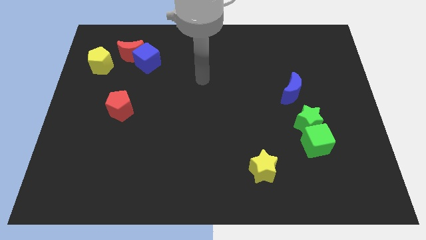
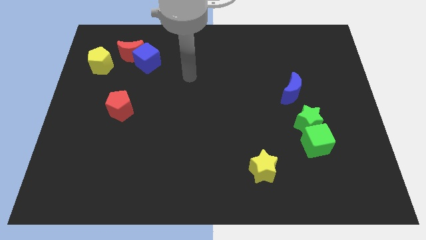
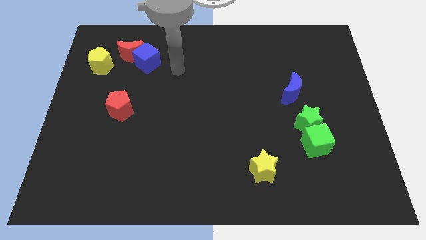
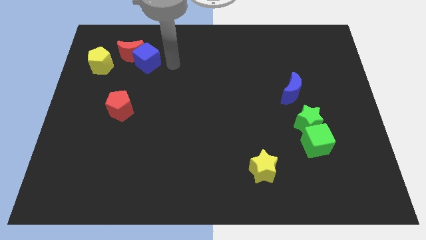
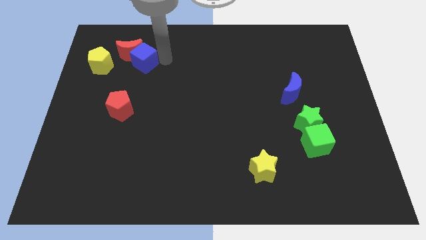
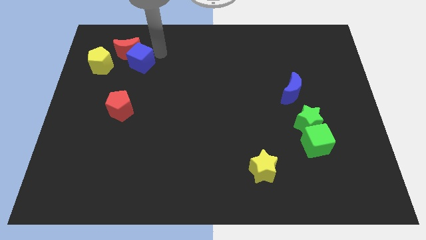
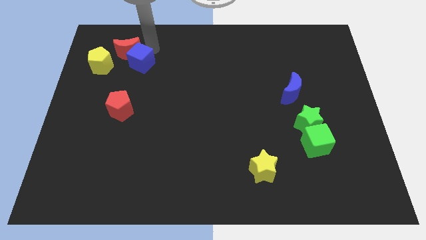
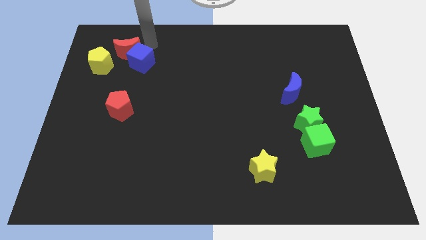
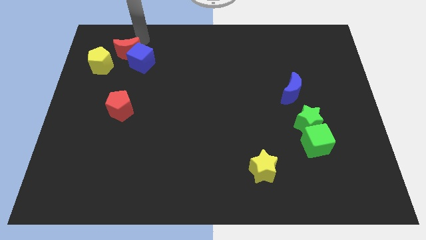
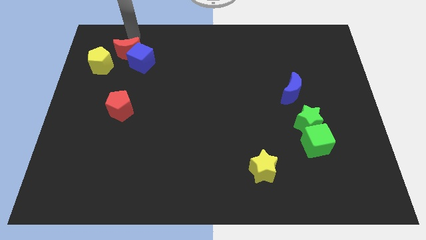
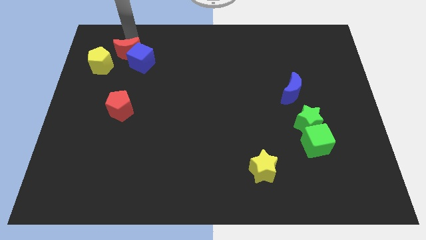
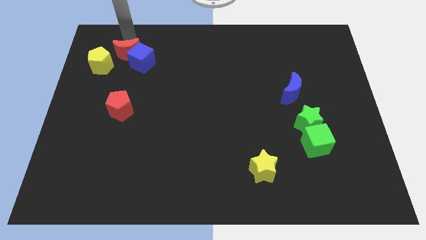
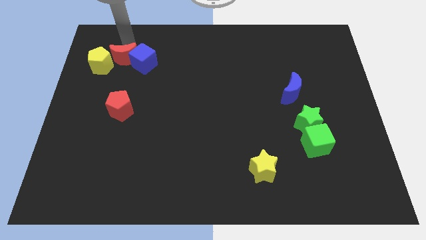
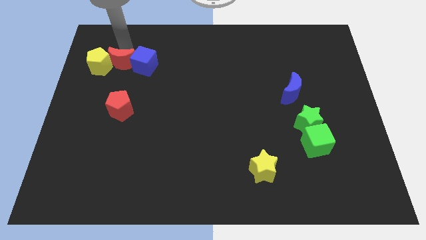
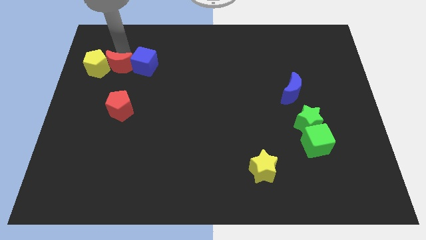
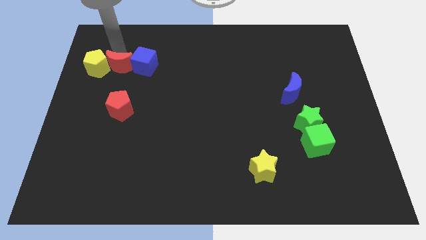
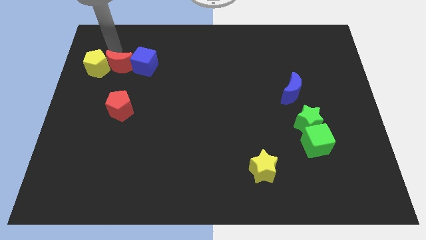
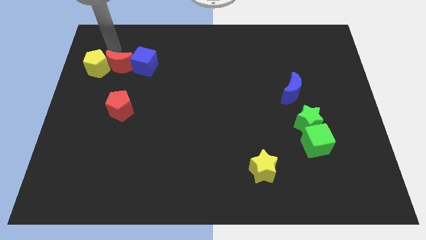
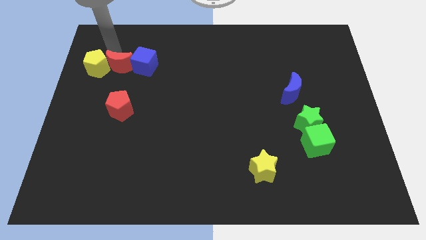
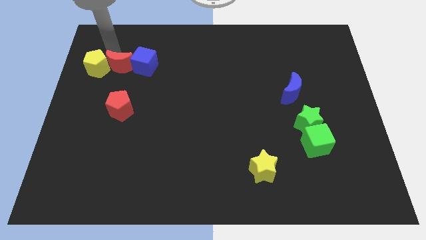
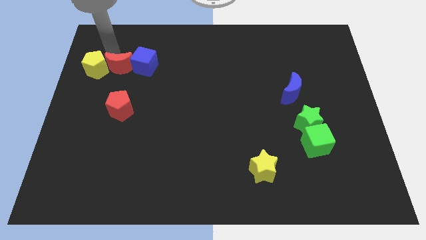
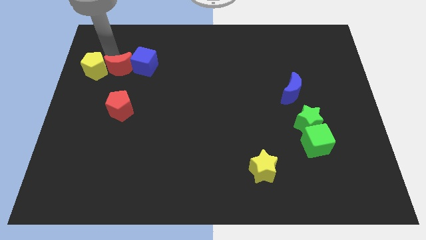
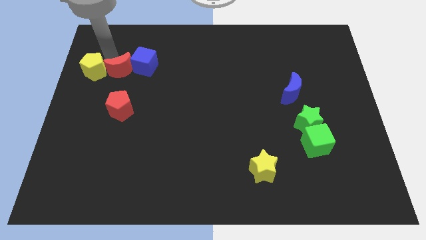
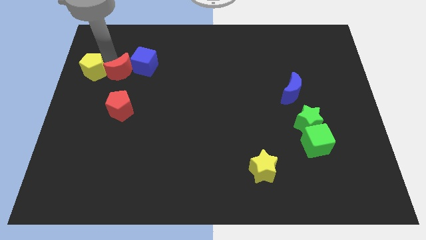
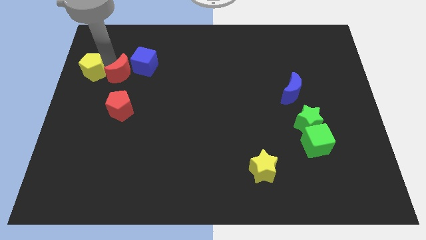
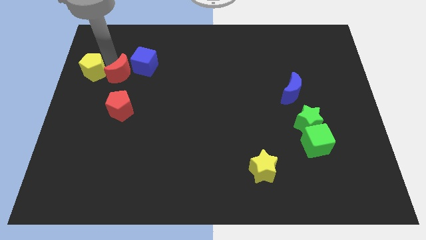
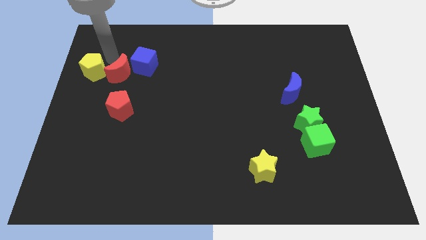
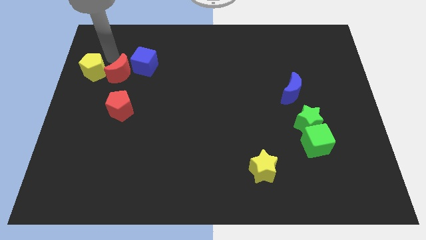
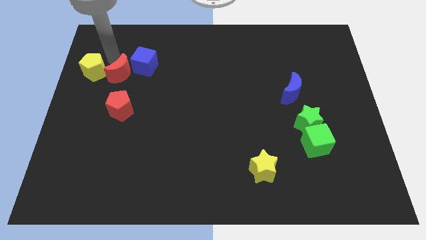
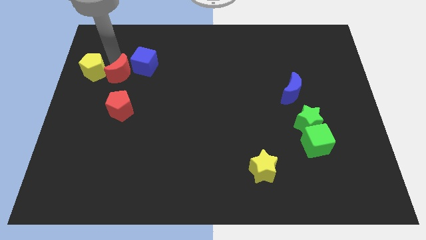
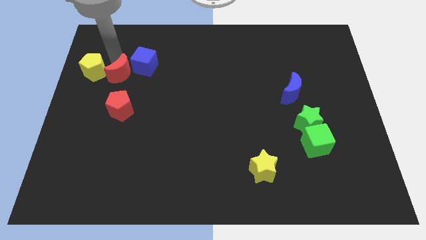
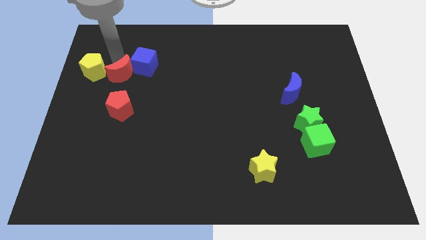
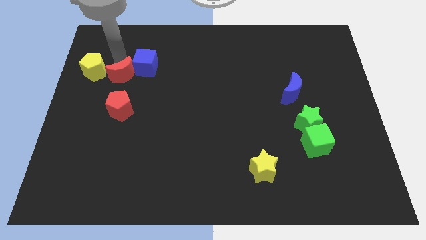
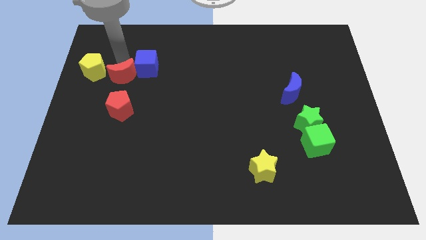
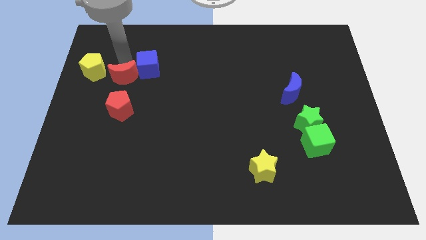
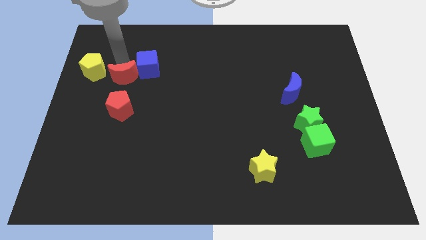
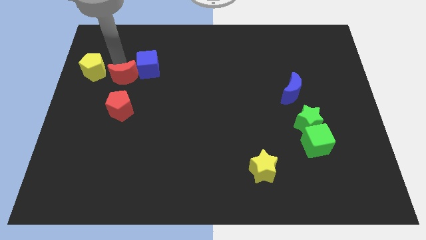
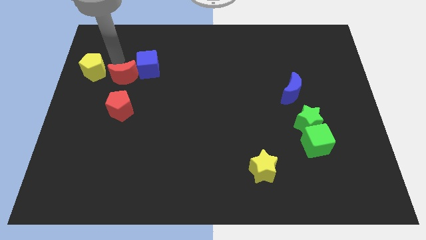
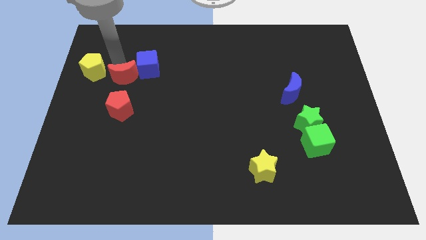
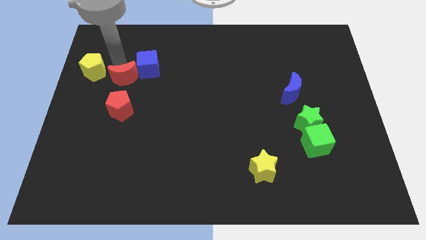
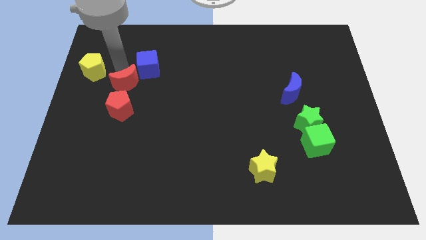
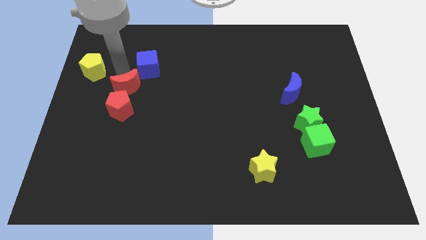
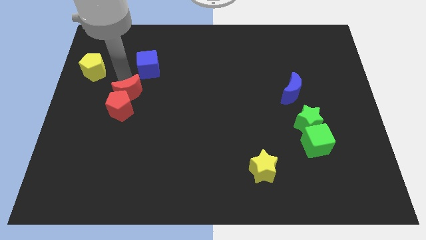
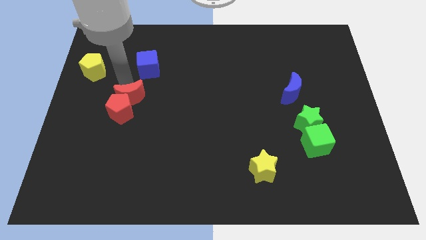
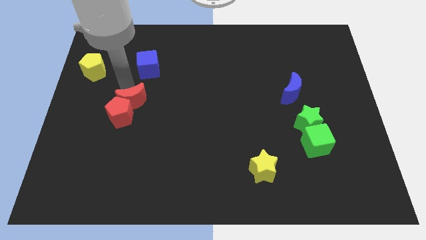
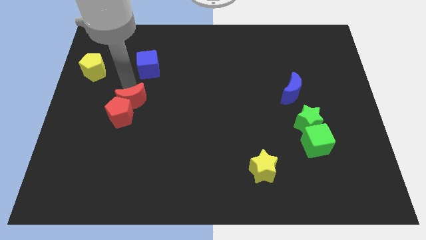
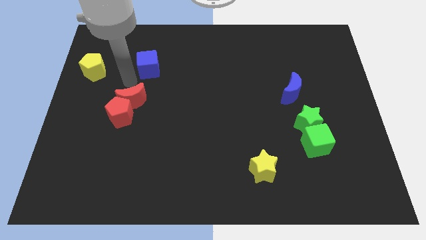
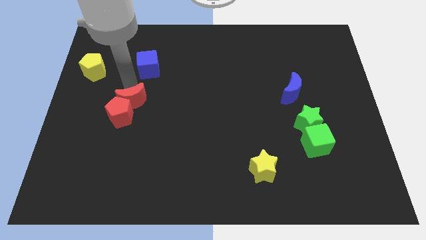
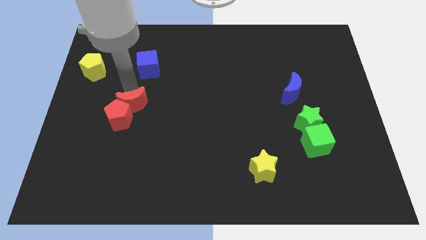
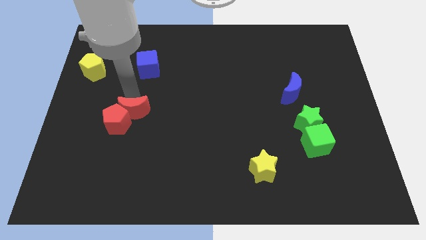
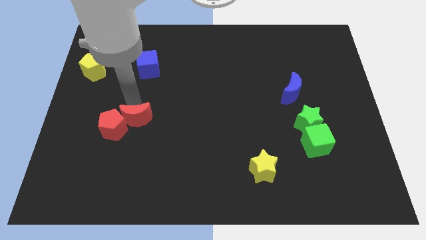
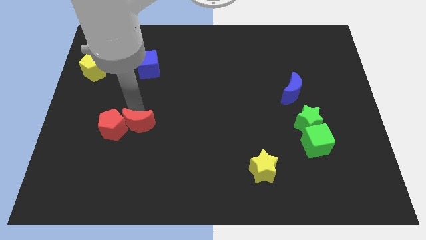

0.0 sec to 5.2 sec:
move the red moon to the bottom right side of the red pentagon
